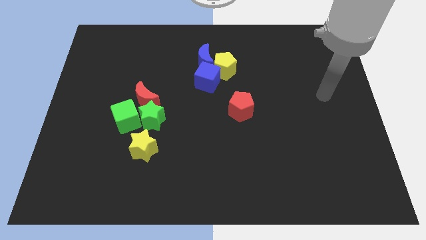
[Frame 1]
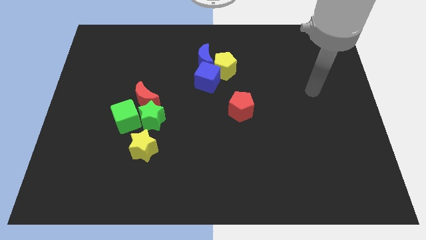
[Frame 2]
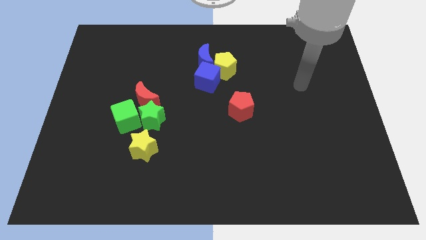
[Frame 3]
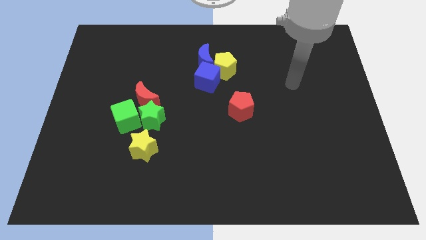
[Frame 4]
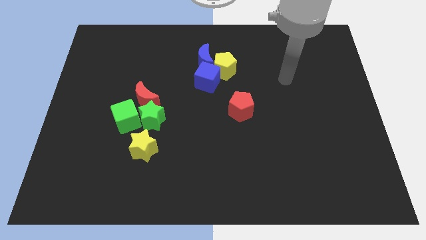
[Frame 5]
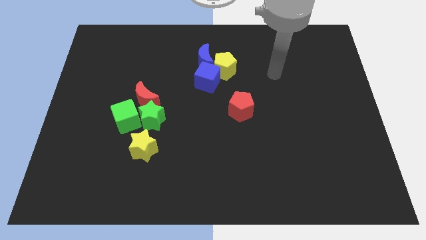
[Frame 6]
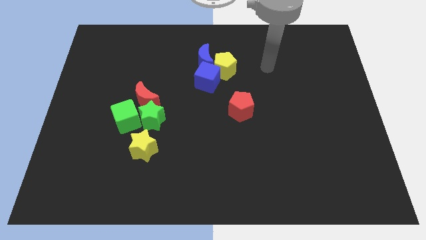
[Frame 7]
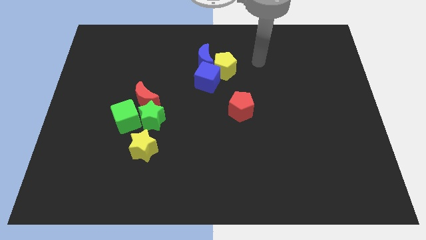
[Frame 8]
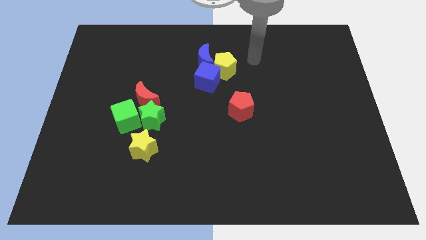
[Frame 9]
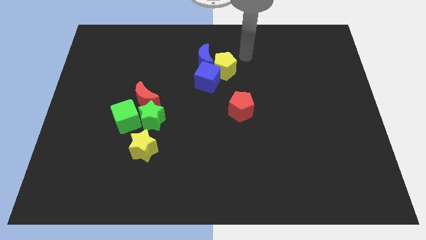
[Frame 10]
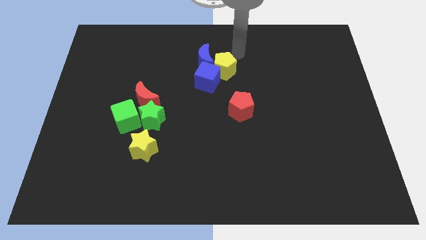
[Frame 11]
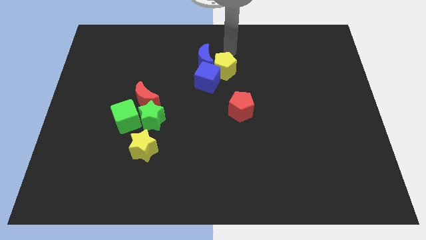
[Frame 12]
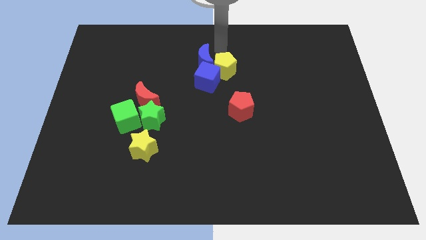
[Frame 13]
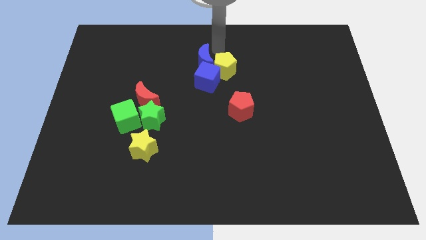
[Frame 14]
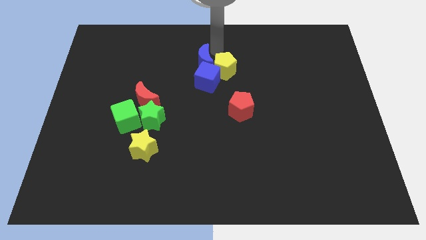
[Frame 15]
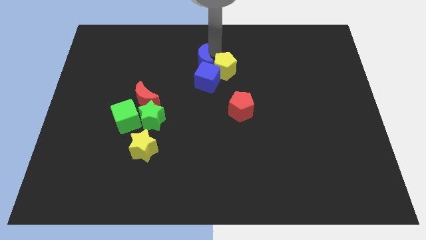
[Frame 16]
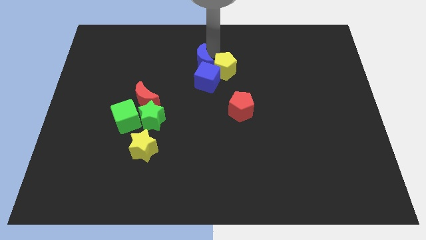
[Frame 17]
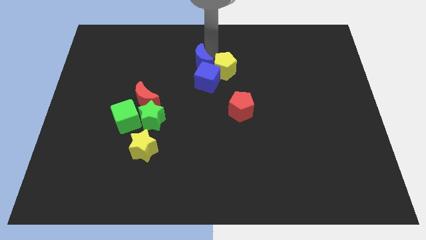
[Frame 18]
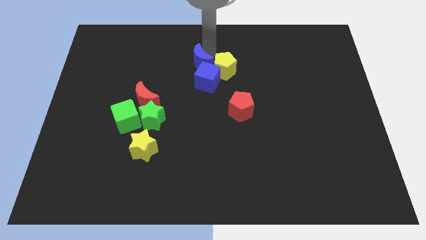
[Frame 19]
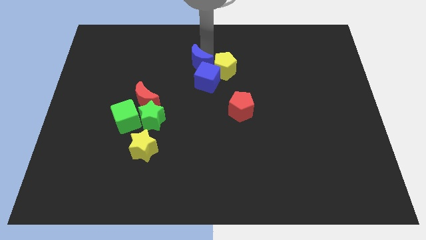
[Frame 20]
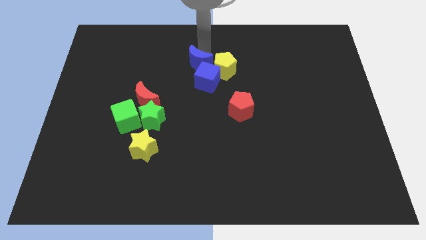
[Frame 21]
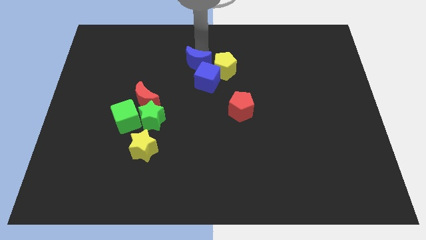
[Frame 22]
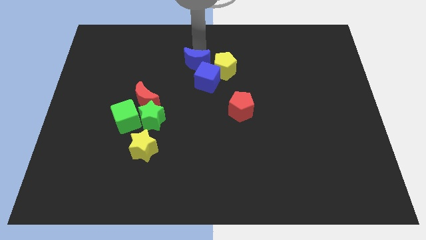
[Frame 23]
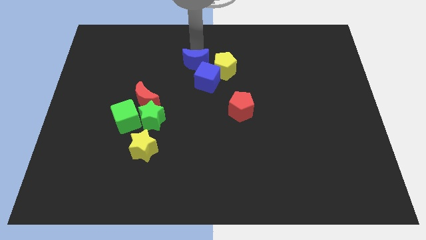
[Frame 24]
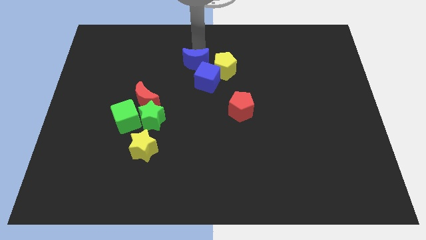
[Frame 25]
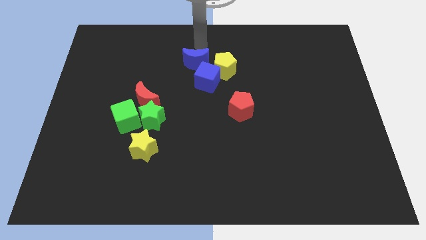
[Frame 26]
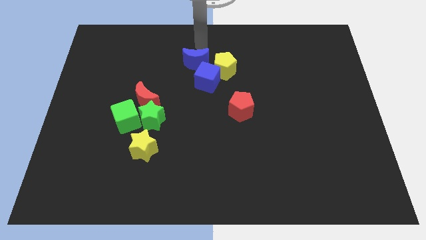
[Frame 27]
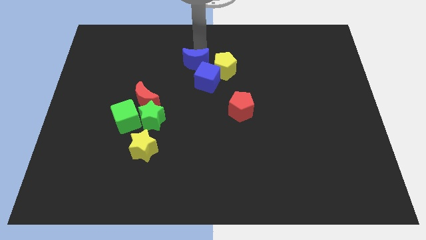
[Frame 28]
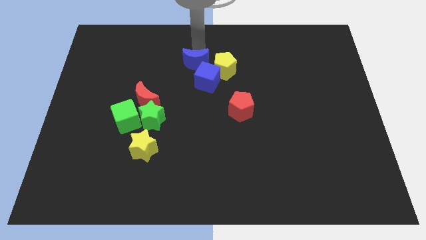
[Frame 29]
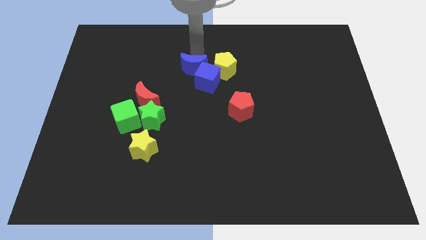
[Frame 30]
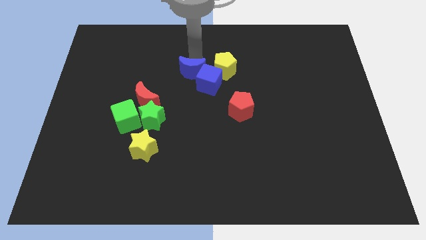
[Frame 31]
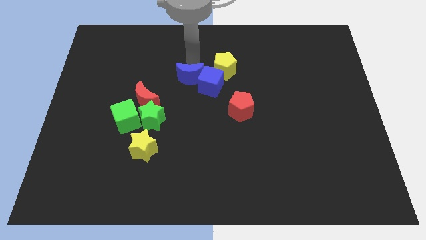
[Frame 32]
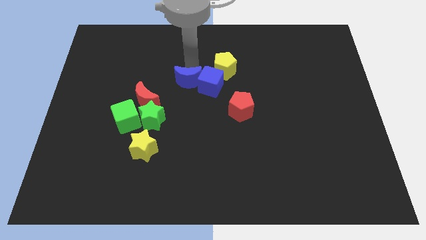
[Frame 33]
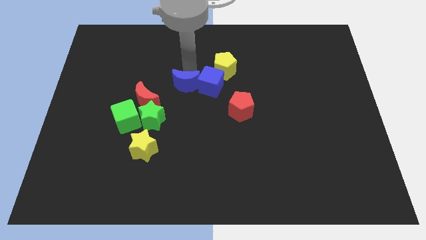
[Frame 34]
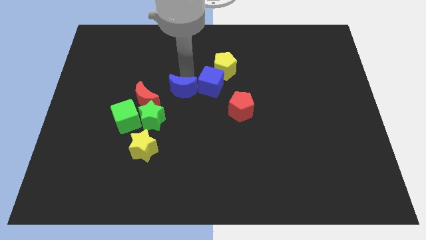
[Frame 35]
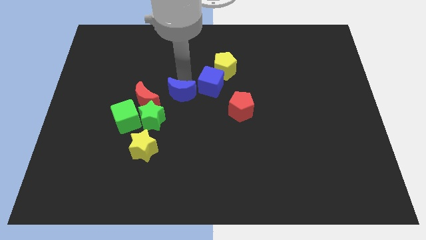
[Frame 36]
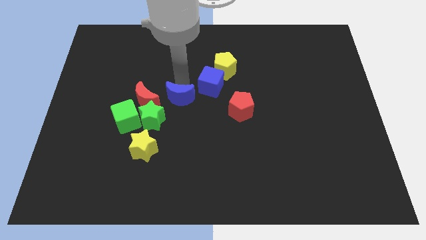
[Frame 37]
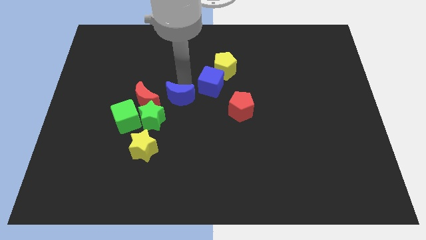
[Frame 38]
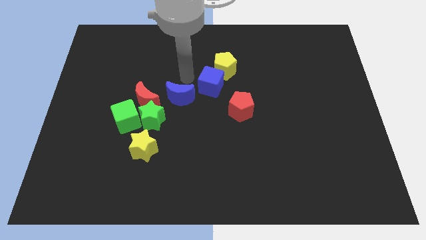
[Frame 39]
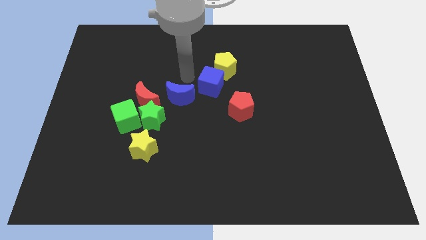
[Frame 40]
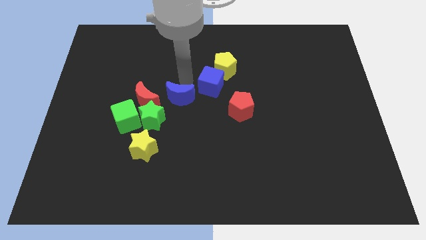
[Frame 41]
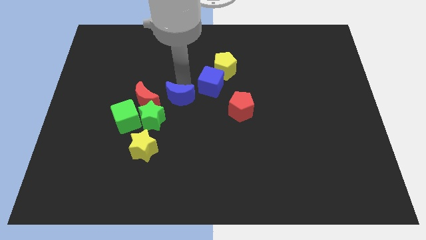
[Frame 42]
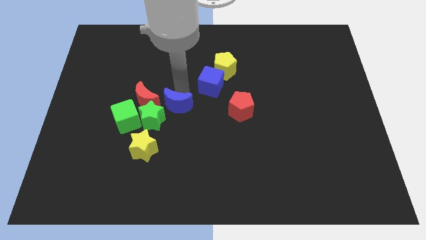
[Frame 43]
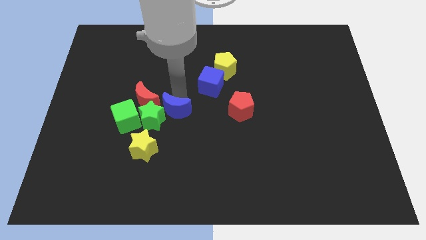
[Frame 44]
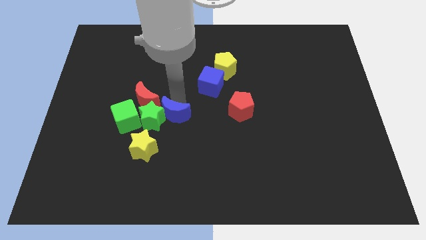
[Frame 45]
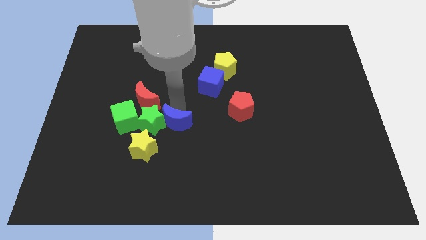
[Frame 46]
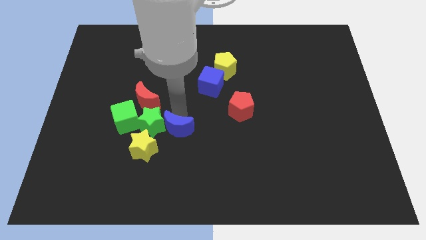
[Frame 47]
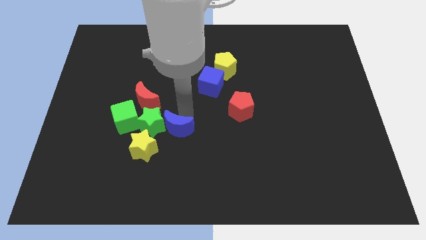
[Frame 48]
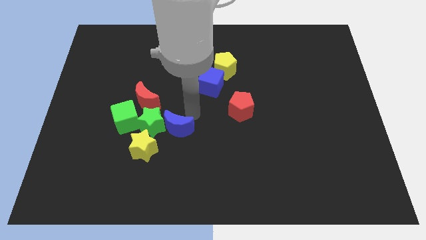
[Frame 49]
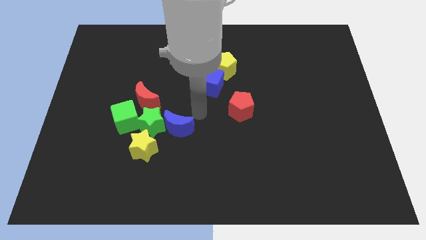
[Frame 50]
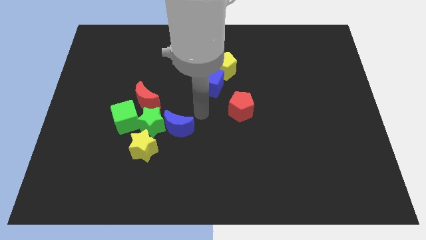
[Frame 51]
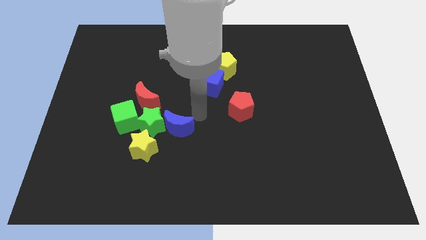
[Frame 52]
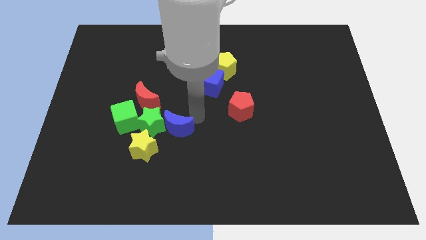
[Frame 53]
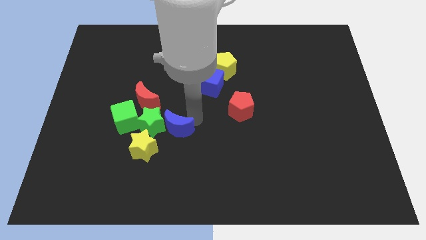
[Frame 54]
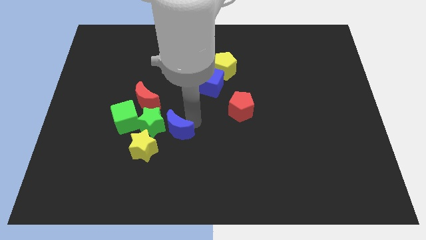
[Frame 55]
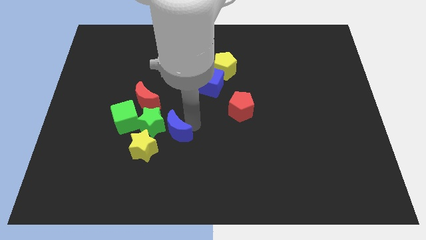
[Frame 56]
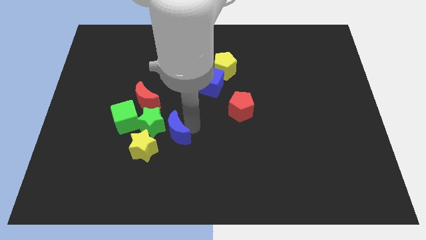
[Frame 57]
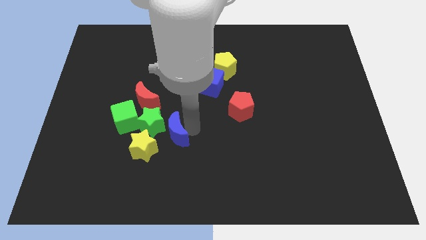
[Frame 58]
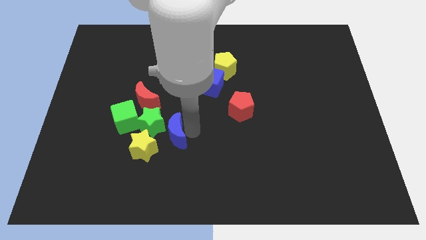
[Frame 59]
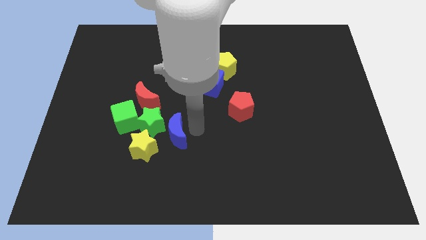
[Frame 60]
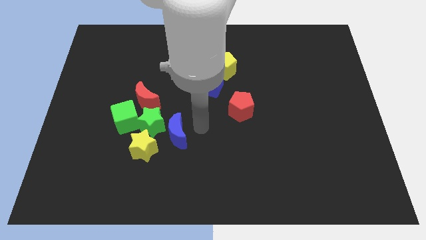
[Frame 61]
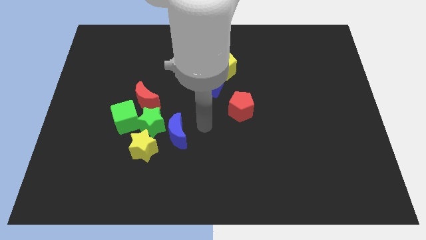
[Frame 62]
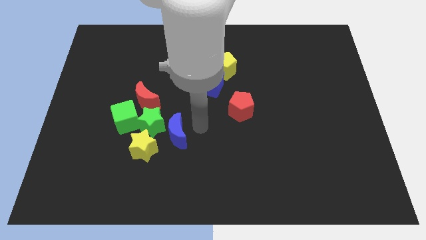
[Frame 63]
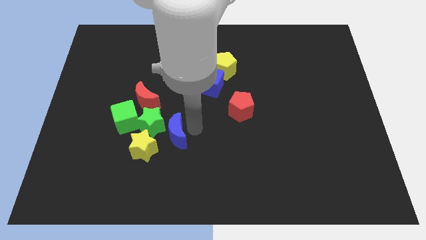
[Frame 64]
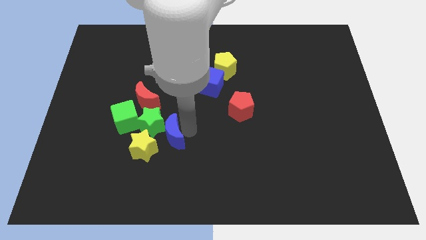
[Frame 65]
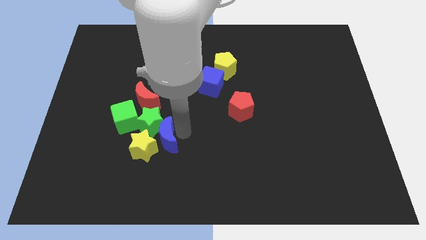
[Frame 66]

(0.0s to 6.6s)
push the blue moon next to the yellow star
